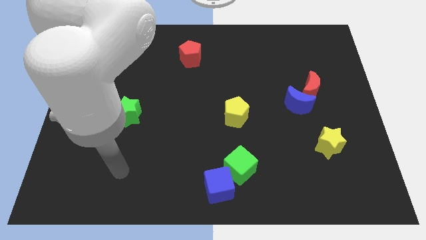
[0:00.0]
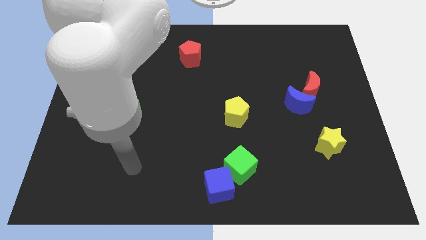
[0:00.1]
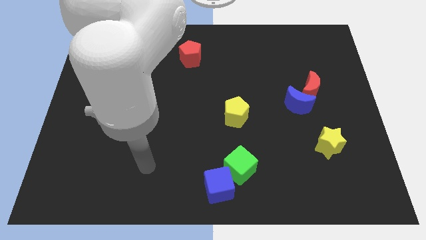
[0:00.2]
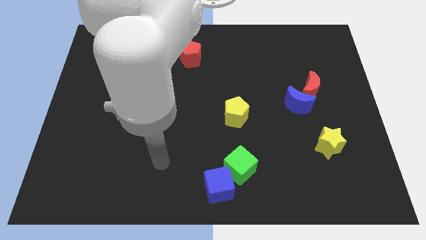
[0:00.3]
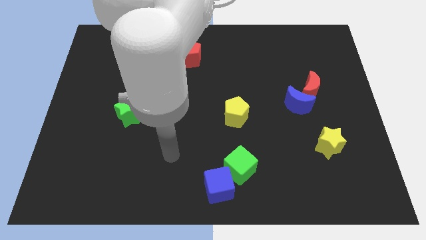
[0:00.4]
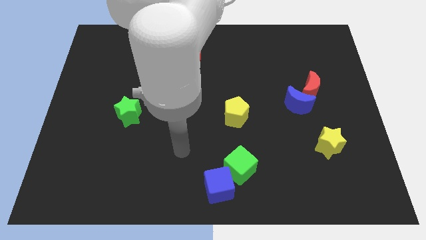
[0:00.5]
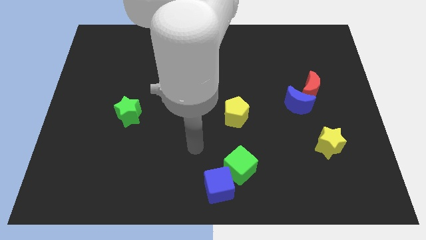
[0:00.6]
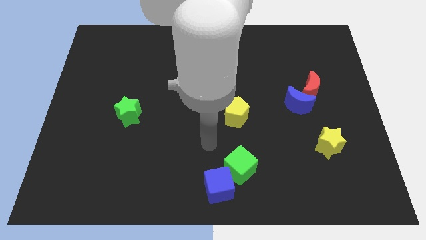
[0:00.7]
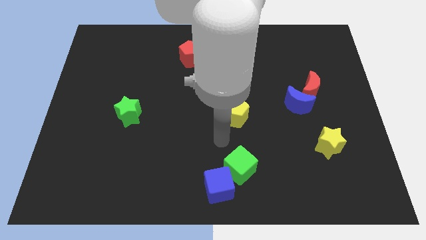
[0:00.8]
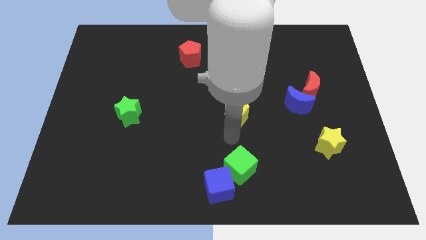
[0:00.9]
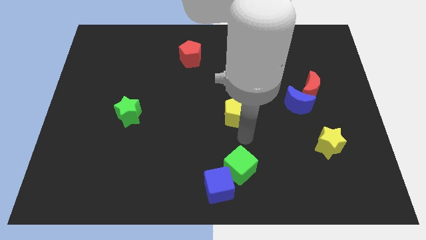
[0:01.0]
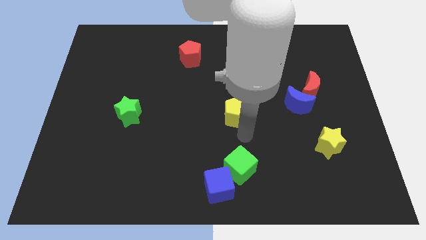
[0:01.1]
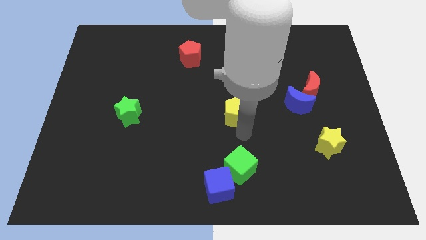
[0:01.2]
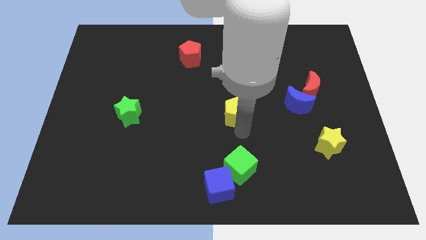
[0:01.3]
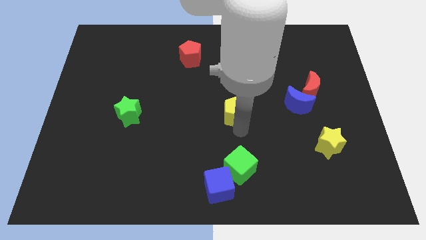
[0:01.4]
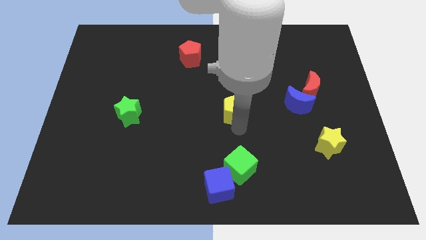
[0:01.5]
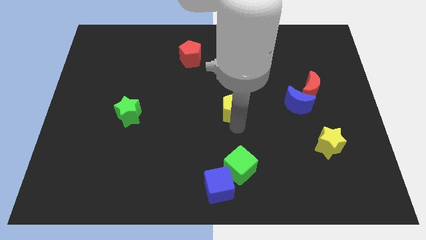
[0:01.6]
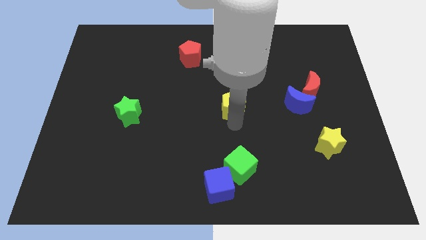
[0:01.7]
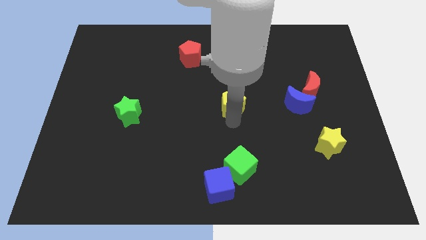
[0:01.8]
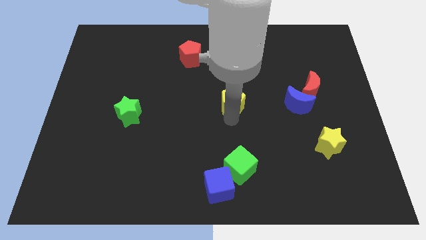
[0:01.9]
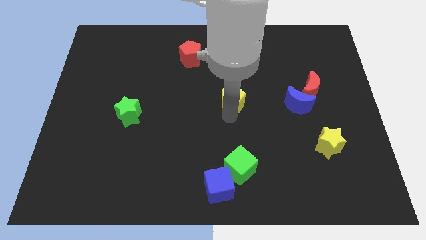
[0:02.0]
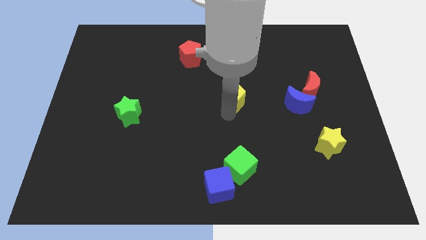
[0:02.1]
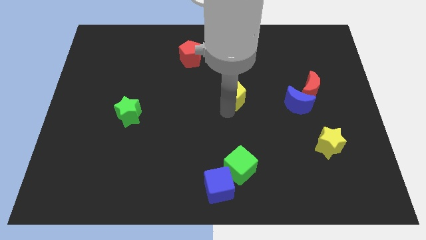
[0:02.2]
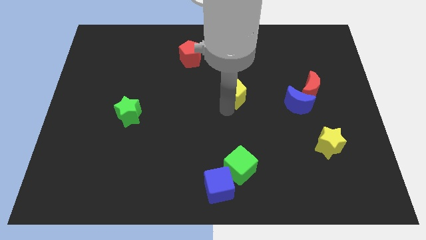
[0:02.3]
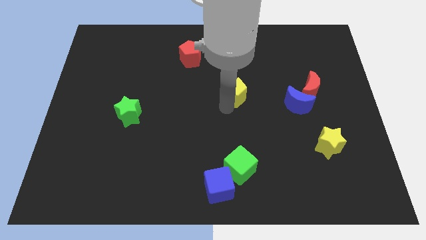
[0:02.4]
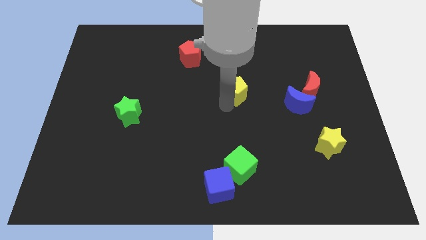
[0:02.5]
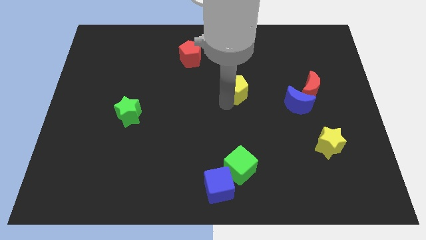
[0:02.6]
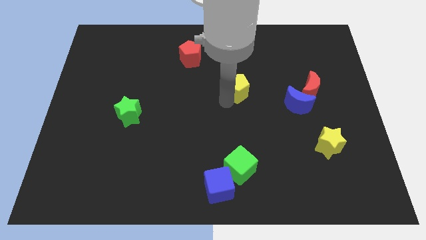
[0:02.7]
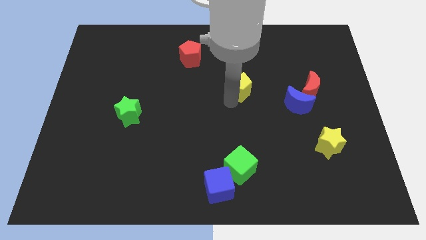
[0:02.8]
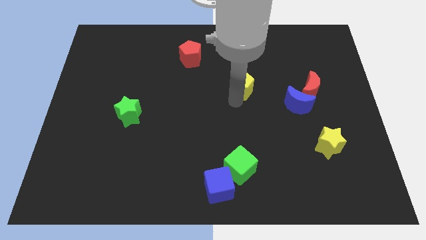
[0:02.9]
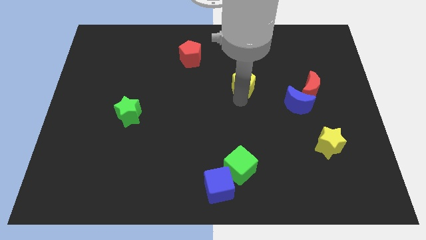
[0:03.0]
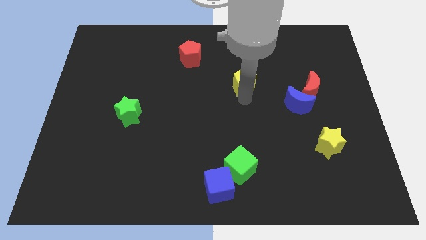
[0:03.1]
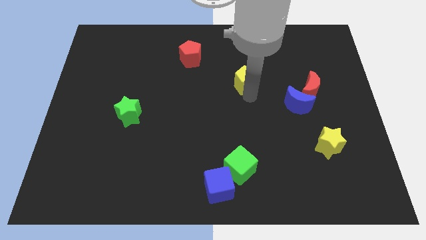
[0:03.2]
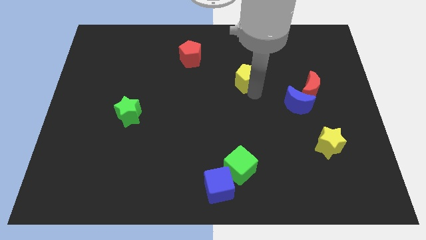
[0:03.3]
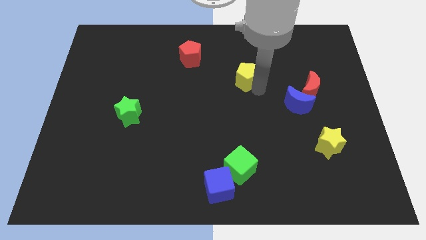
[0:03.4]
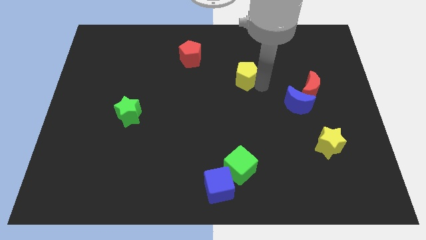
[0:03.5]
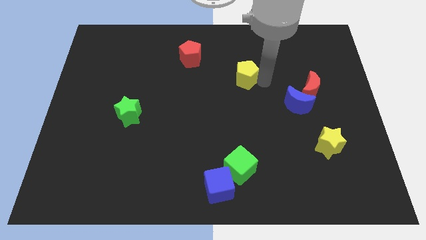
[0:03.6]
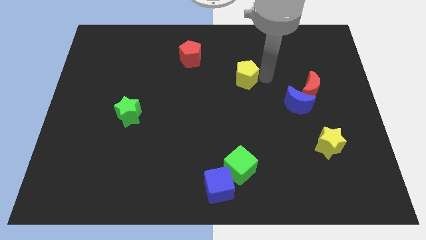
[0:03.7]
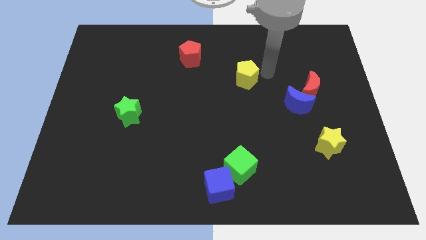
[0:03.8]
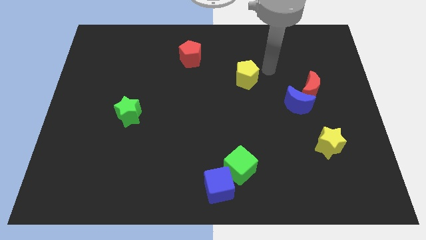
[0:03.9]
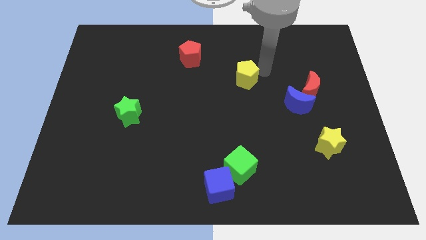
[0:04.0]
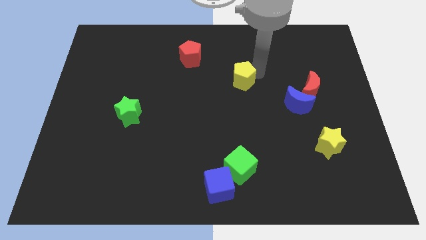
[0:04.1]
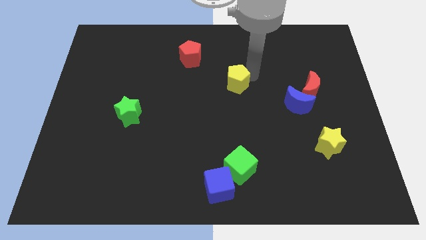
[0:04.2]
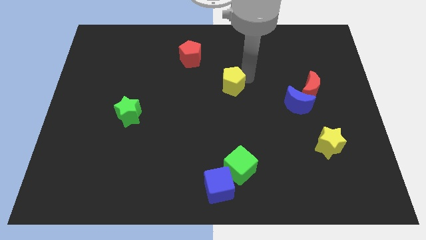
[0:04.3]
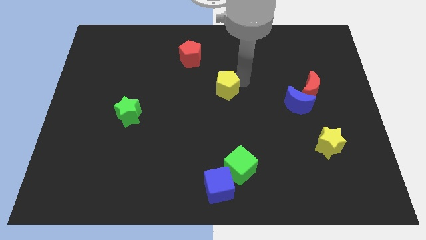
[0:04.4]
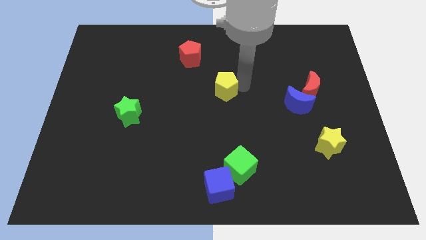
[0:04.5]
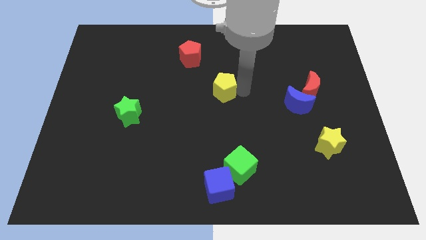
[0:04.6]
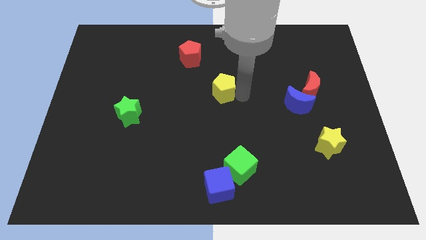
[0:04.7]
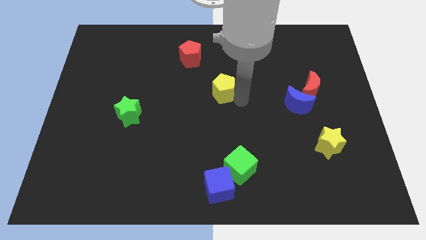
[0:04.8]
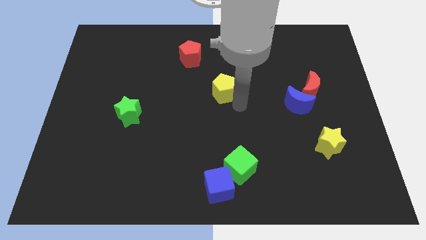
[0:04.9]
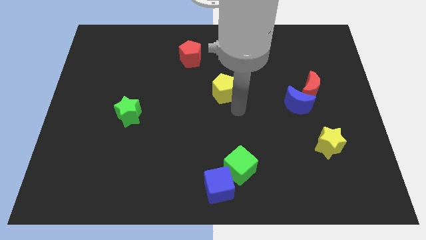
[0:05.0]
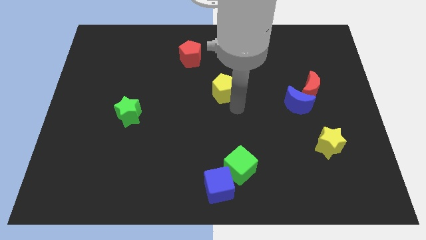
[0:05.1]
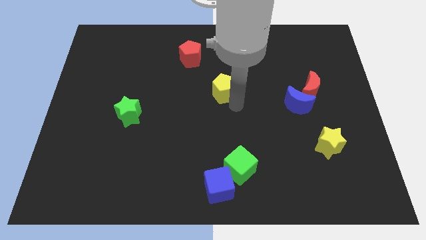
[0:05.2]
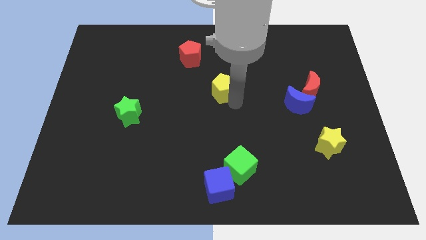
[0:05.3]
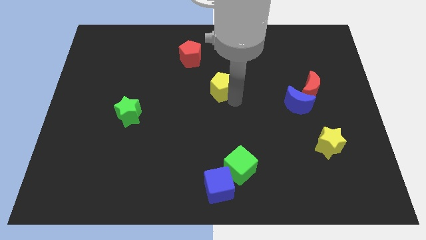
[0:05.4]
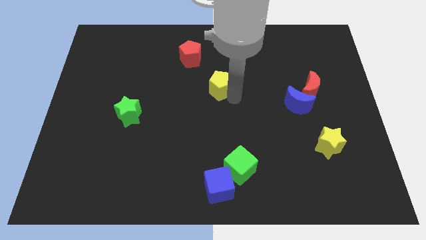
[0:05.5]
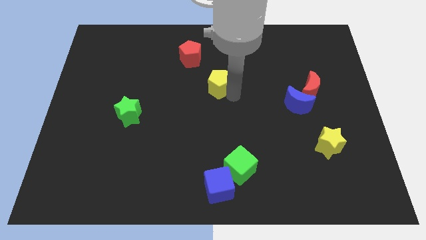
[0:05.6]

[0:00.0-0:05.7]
slide the yellow pentagon to the bottom right of the red pentagon

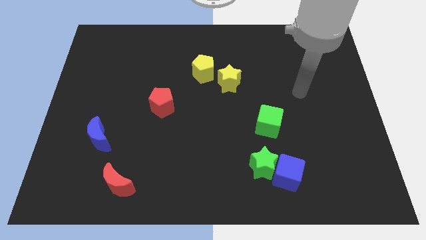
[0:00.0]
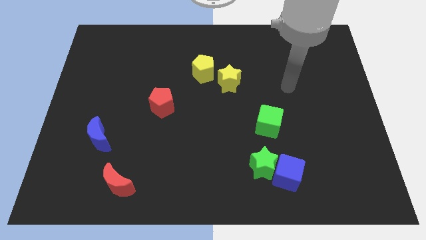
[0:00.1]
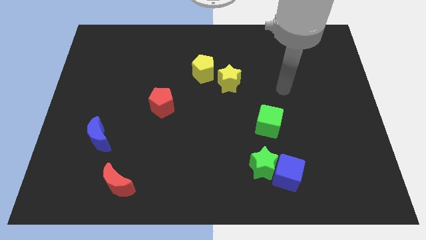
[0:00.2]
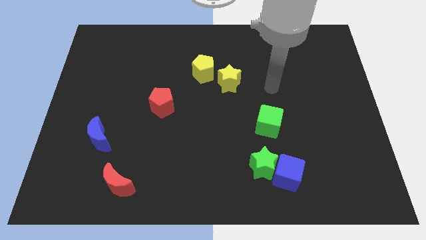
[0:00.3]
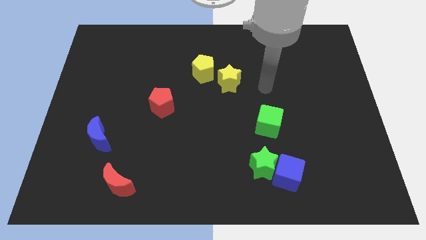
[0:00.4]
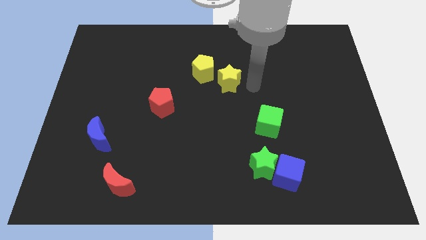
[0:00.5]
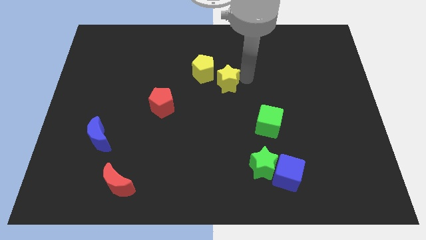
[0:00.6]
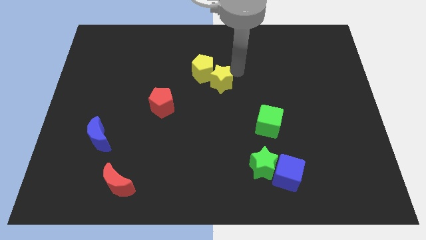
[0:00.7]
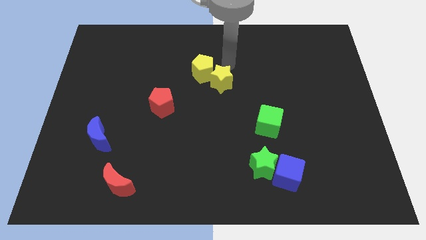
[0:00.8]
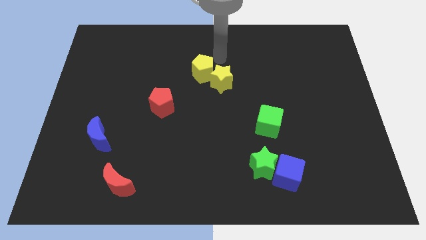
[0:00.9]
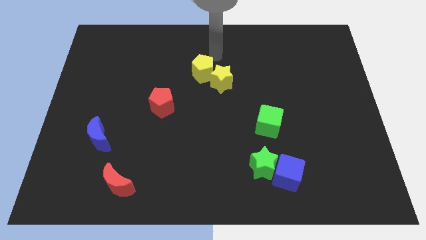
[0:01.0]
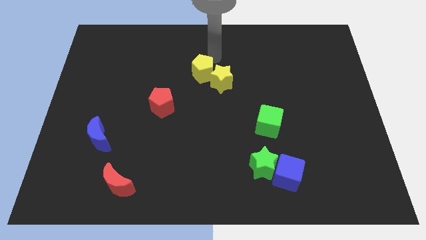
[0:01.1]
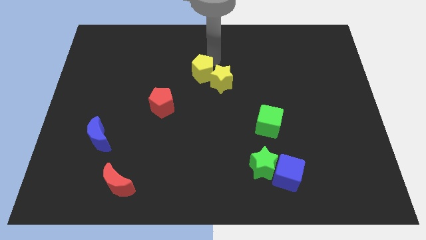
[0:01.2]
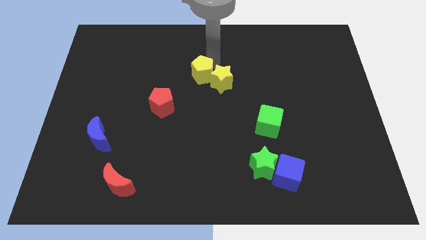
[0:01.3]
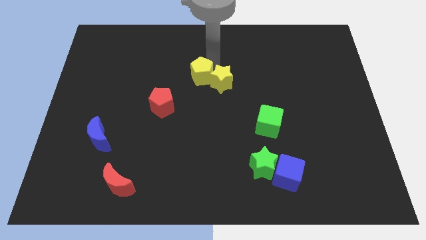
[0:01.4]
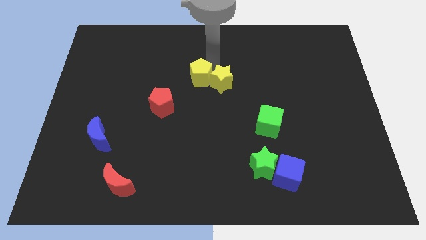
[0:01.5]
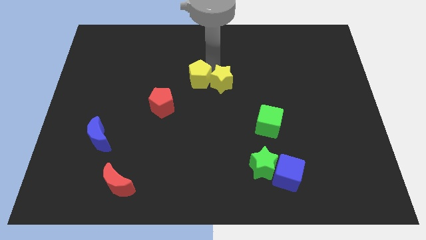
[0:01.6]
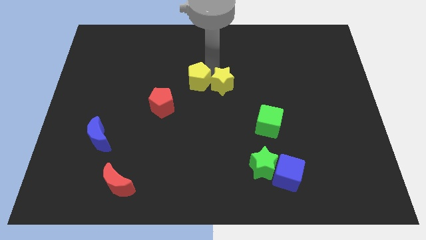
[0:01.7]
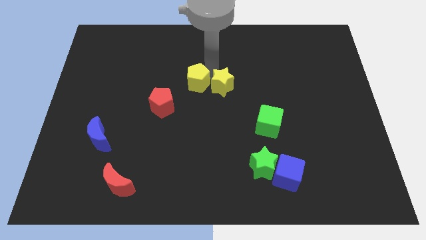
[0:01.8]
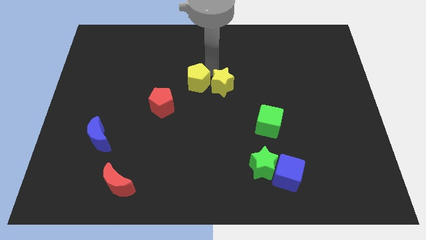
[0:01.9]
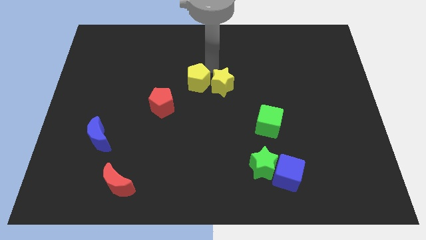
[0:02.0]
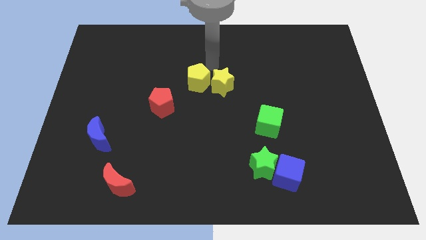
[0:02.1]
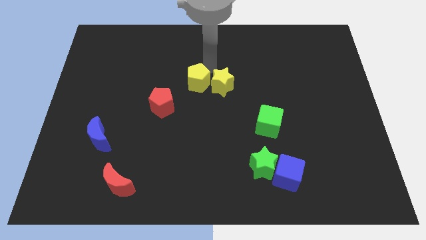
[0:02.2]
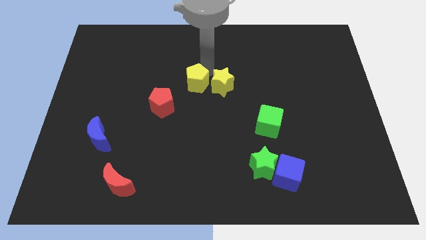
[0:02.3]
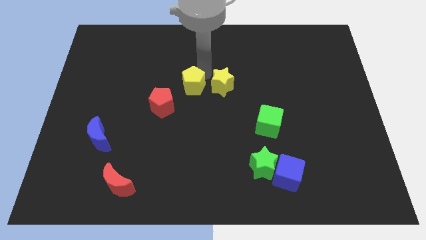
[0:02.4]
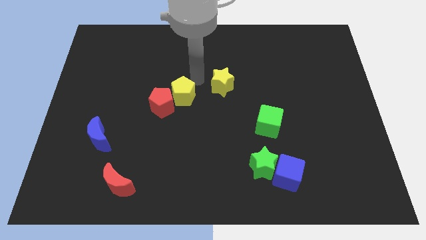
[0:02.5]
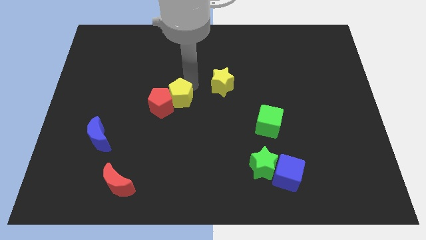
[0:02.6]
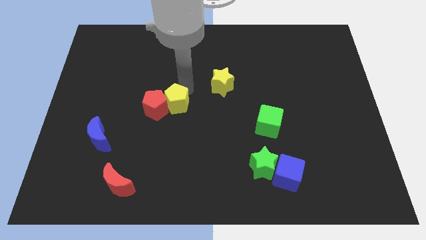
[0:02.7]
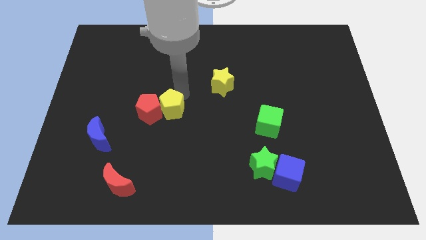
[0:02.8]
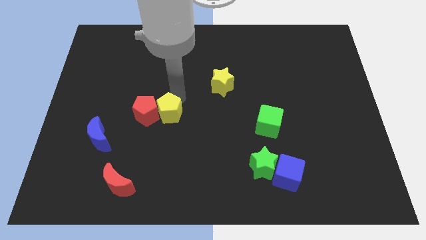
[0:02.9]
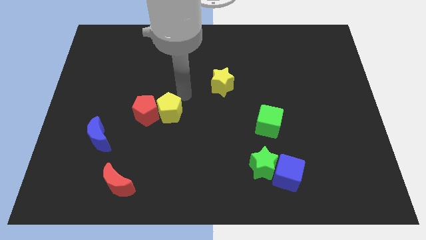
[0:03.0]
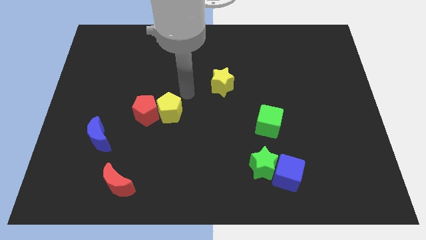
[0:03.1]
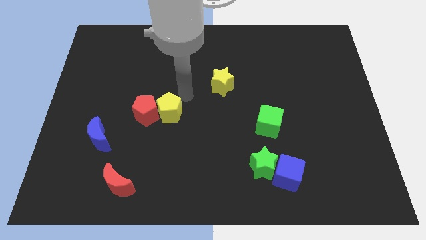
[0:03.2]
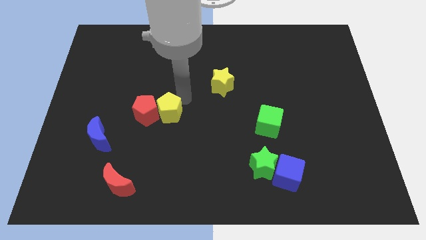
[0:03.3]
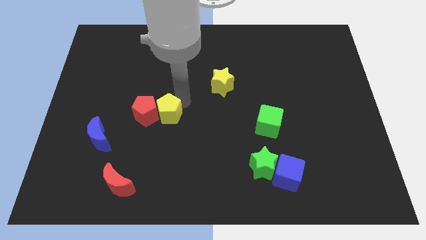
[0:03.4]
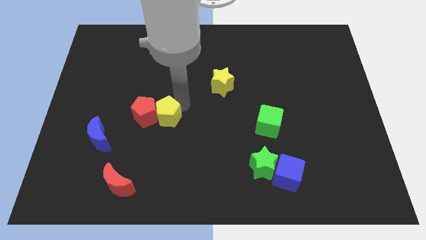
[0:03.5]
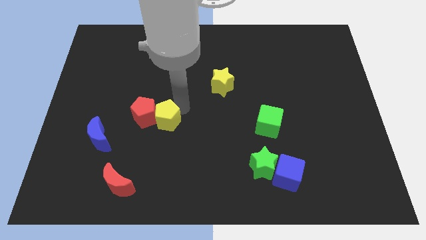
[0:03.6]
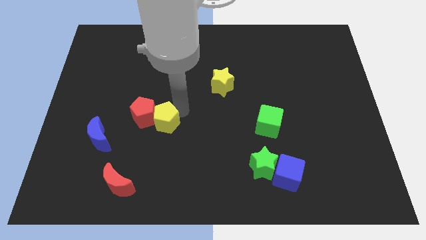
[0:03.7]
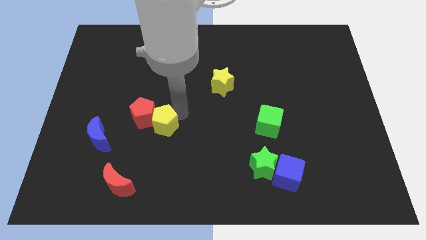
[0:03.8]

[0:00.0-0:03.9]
put the yellow pentagon to the right of the blue moon
